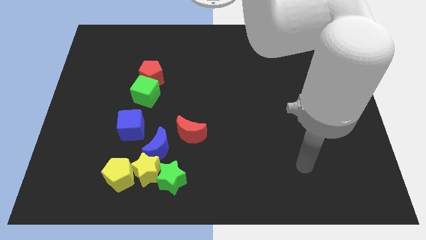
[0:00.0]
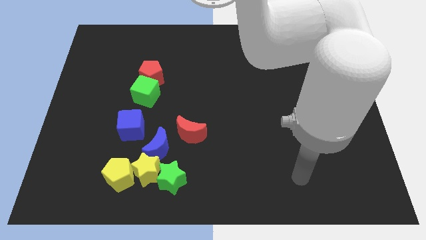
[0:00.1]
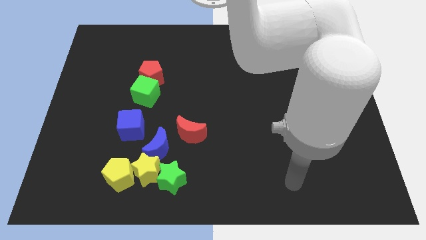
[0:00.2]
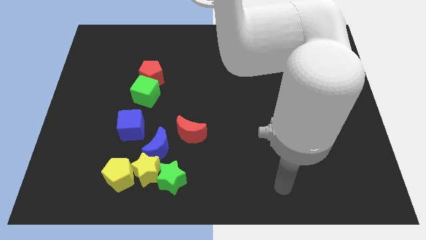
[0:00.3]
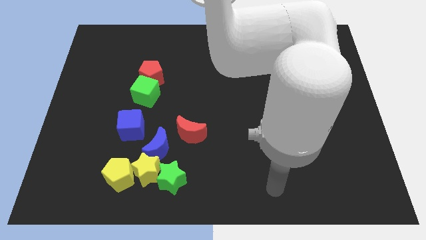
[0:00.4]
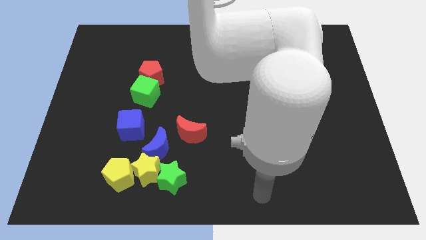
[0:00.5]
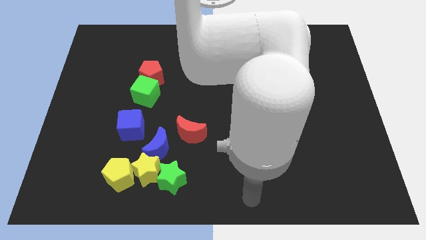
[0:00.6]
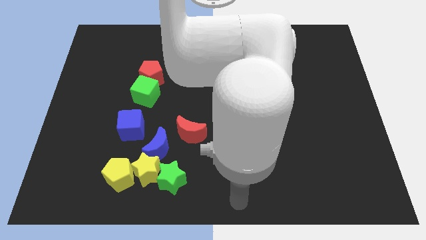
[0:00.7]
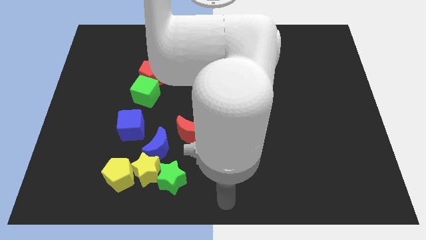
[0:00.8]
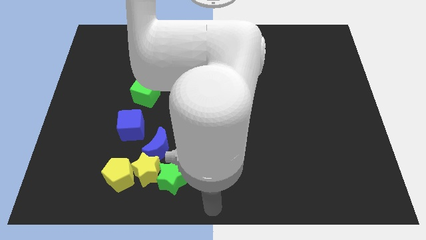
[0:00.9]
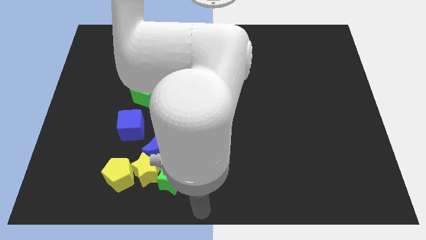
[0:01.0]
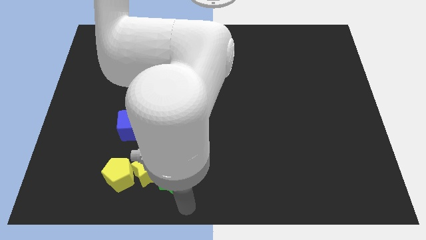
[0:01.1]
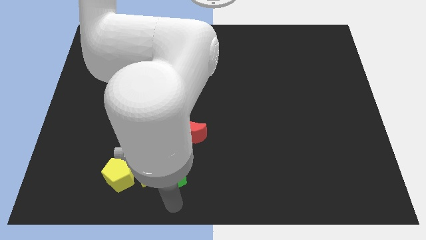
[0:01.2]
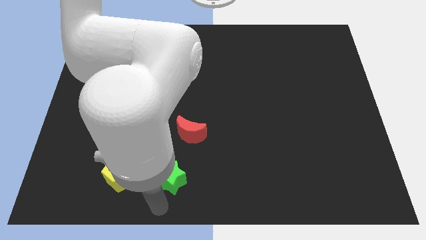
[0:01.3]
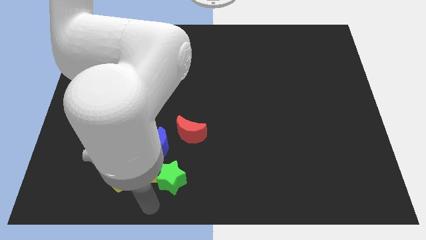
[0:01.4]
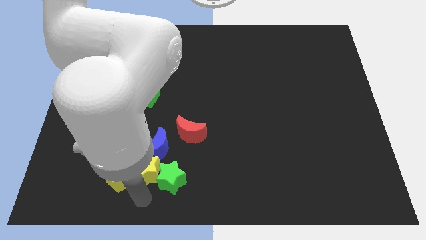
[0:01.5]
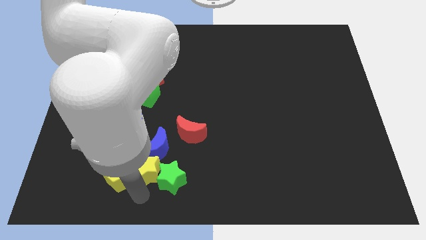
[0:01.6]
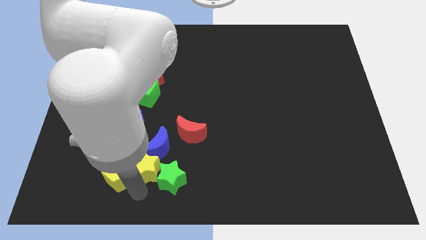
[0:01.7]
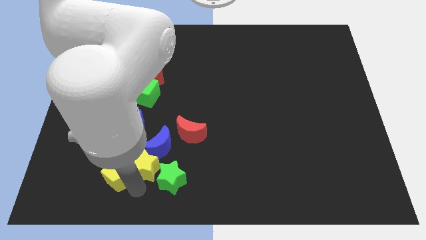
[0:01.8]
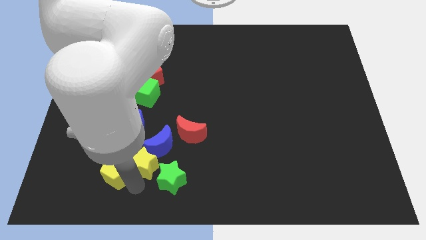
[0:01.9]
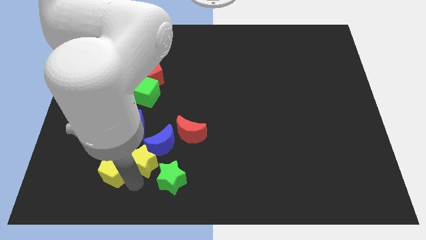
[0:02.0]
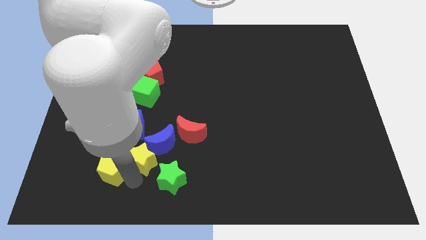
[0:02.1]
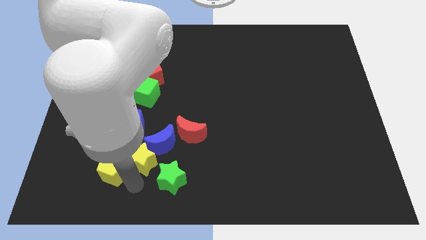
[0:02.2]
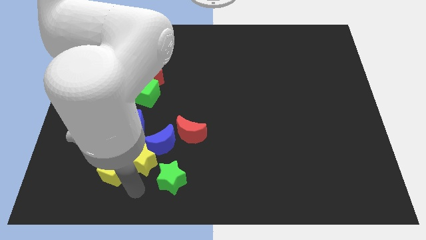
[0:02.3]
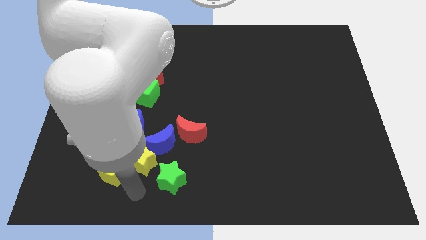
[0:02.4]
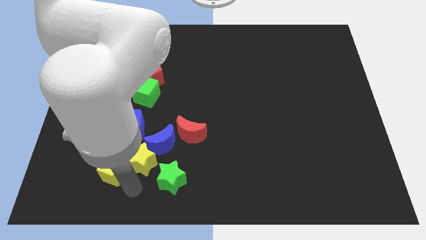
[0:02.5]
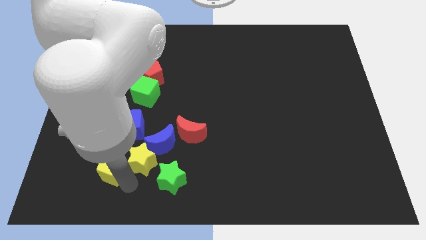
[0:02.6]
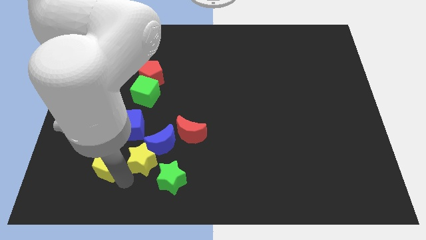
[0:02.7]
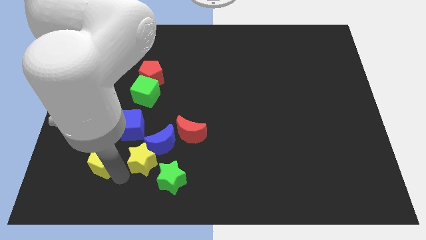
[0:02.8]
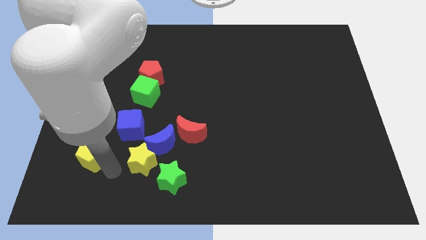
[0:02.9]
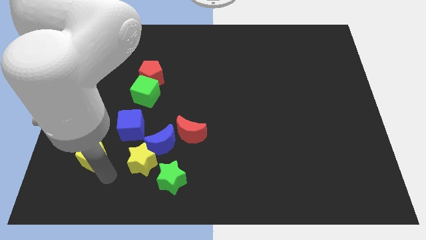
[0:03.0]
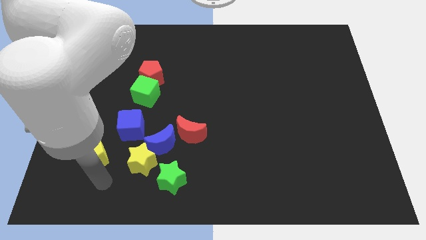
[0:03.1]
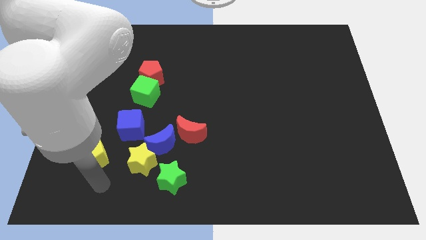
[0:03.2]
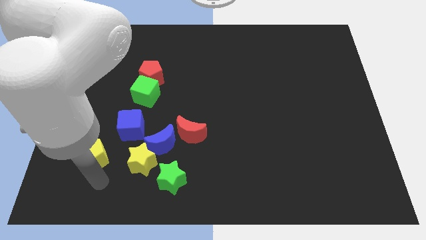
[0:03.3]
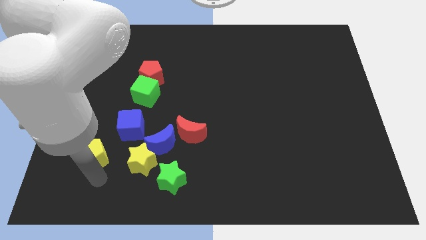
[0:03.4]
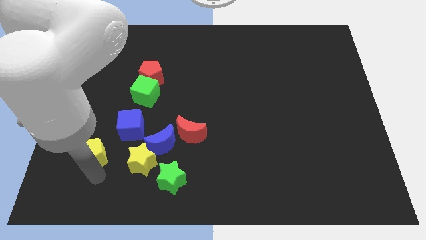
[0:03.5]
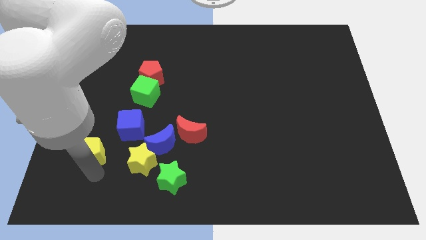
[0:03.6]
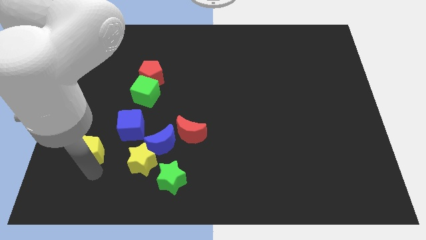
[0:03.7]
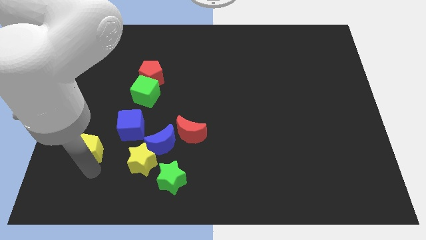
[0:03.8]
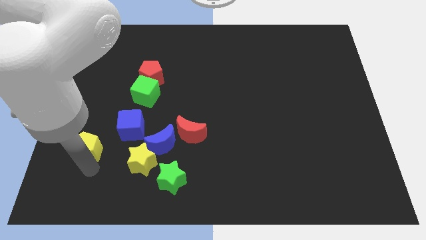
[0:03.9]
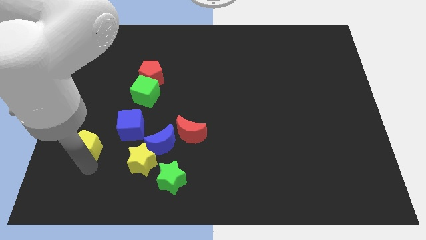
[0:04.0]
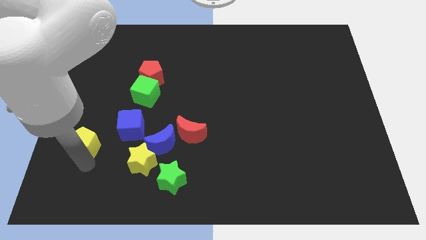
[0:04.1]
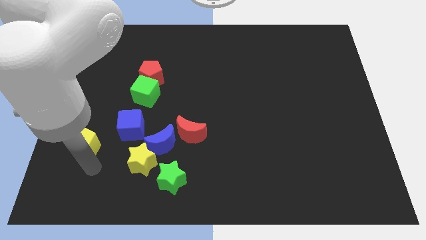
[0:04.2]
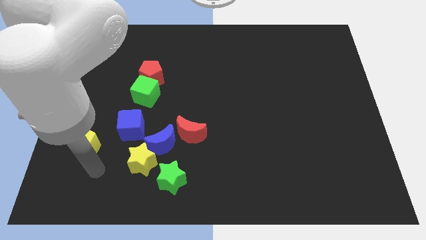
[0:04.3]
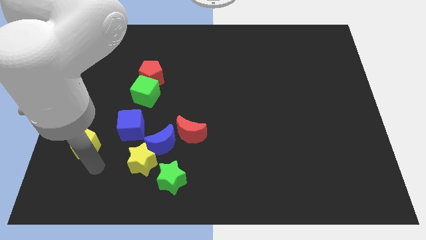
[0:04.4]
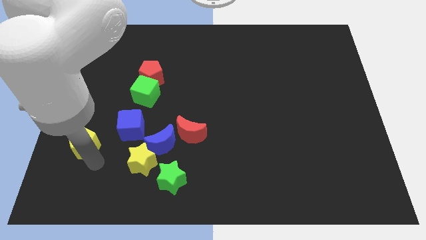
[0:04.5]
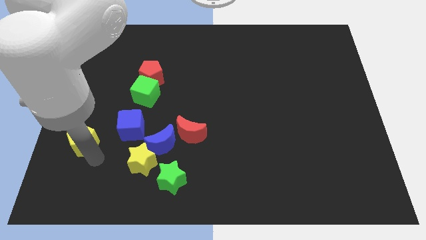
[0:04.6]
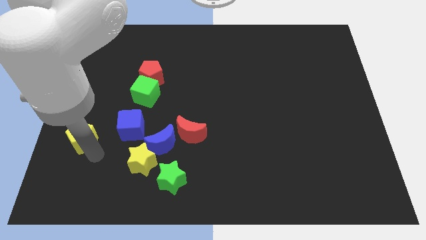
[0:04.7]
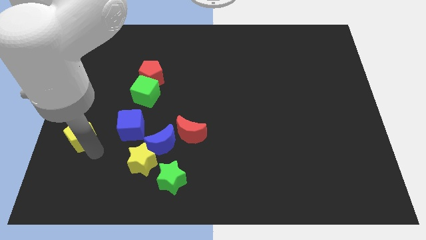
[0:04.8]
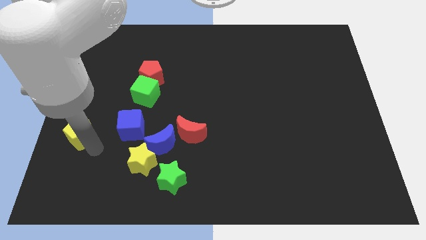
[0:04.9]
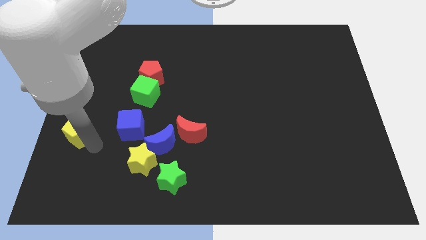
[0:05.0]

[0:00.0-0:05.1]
slide the yellow pentagon to the center left

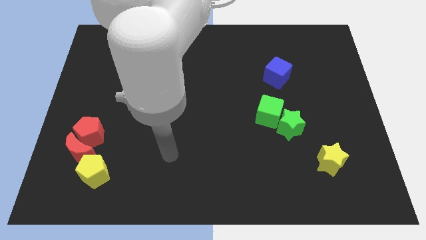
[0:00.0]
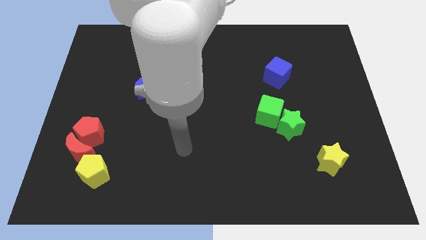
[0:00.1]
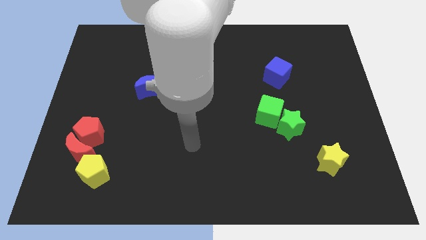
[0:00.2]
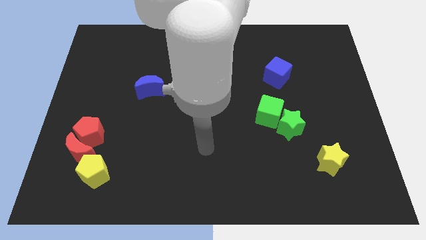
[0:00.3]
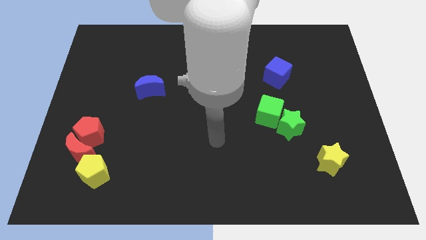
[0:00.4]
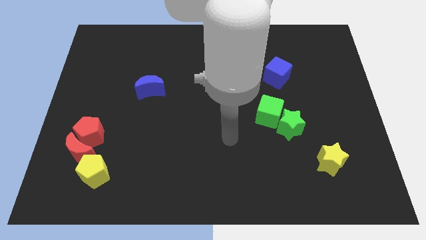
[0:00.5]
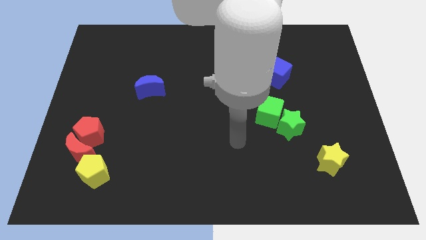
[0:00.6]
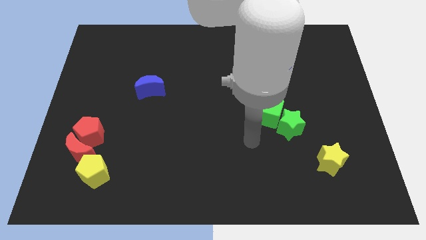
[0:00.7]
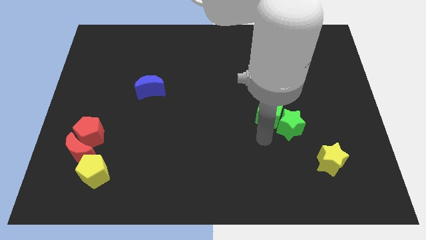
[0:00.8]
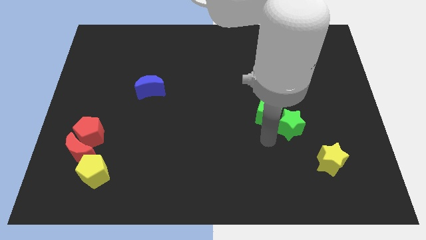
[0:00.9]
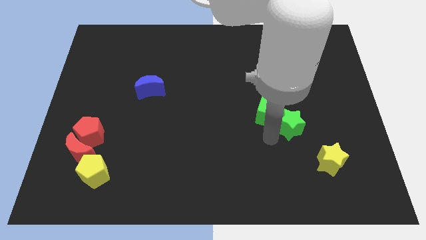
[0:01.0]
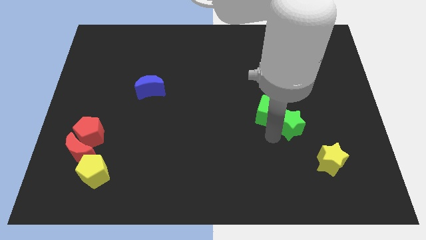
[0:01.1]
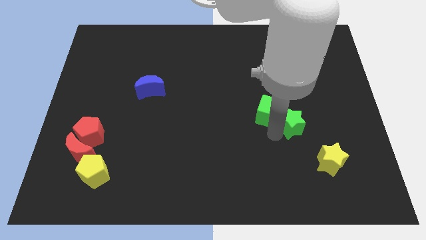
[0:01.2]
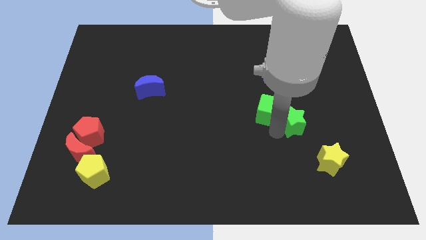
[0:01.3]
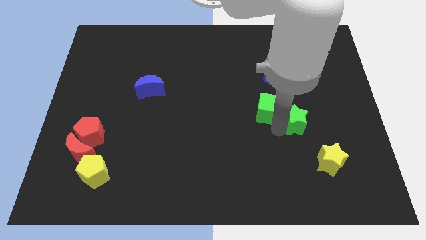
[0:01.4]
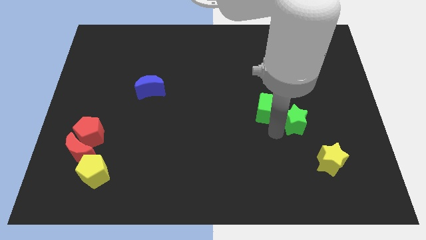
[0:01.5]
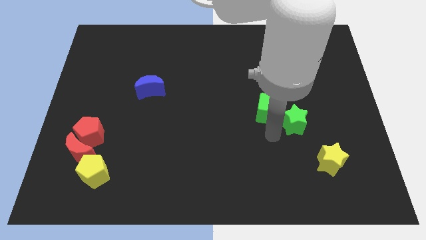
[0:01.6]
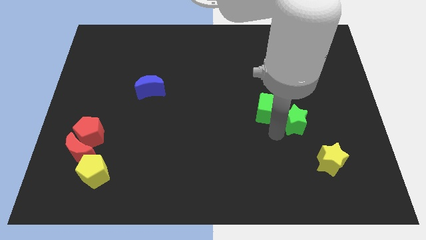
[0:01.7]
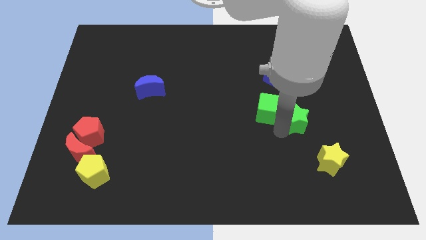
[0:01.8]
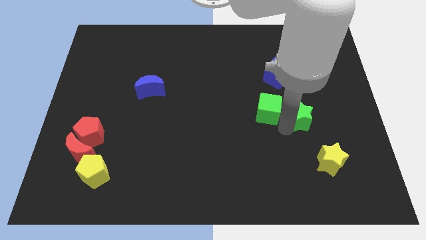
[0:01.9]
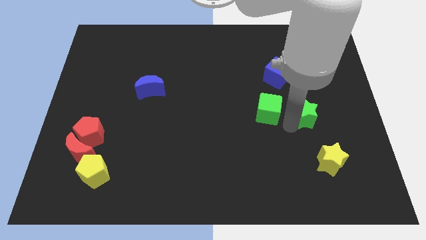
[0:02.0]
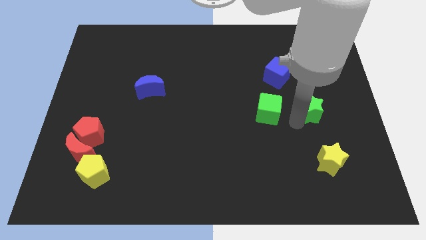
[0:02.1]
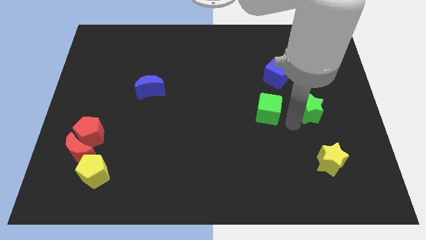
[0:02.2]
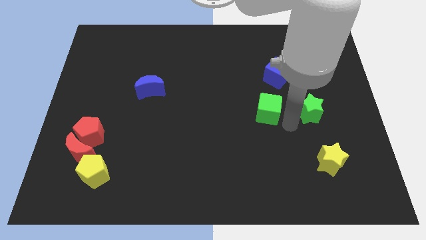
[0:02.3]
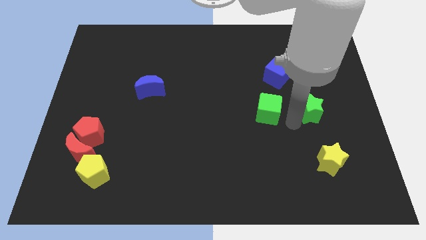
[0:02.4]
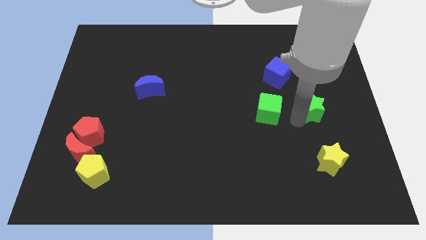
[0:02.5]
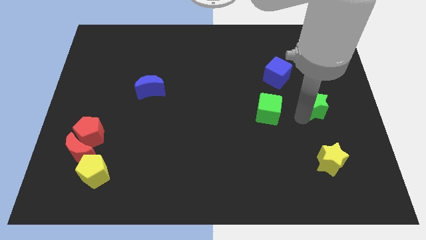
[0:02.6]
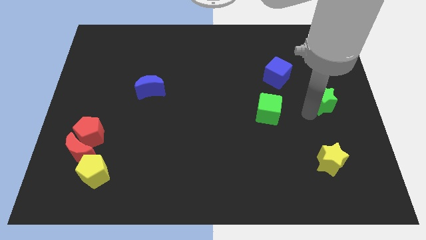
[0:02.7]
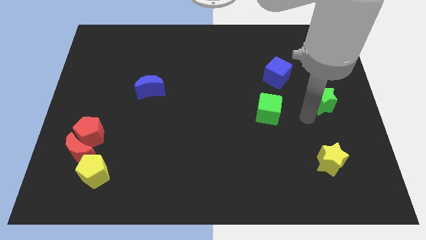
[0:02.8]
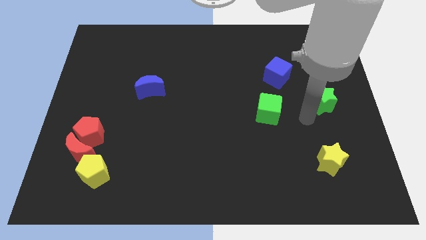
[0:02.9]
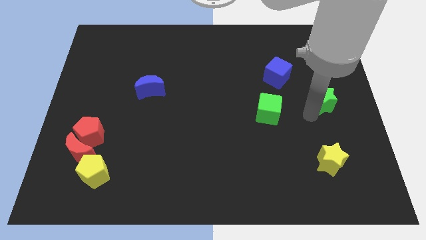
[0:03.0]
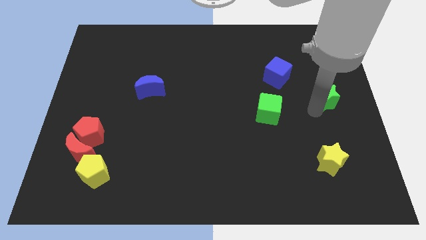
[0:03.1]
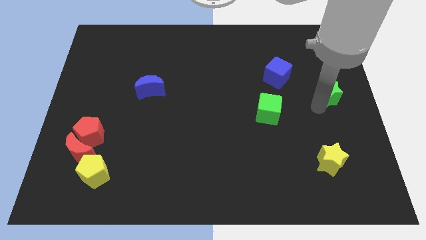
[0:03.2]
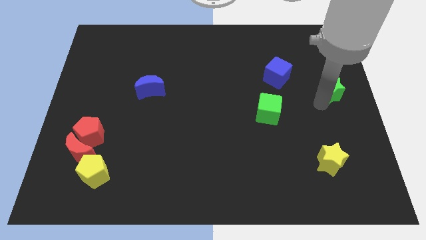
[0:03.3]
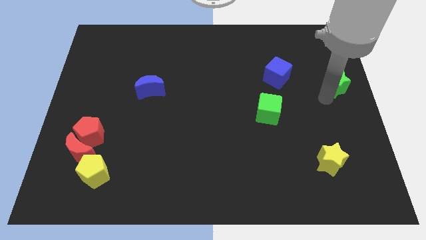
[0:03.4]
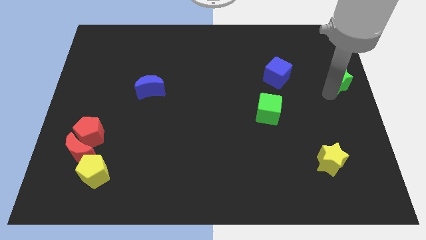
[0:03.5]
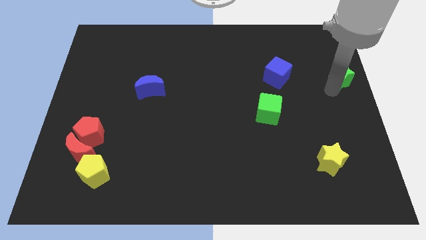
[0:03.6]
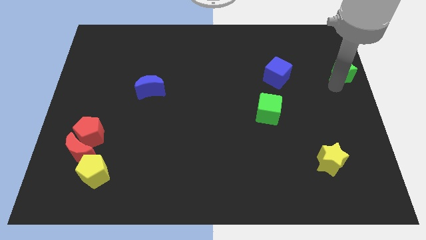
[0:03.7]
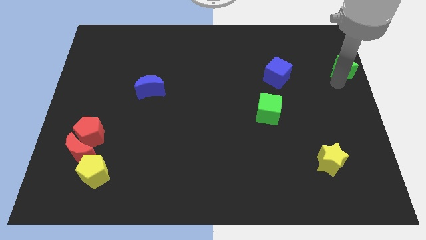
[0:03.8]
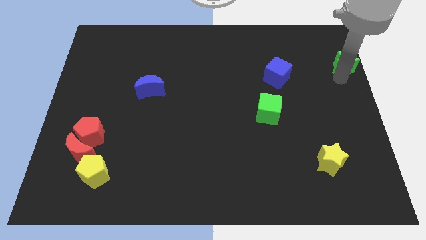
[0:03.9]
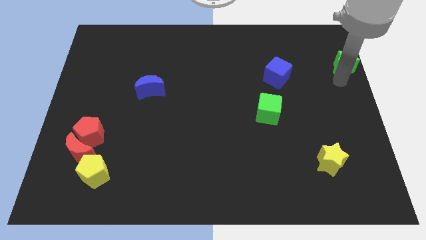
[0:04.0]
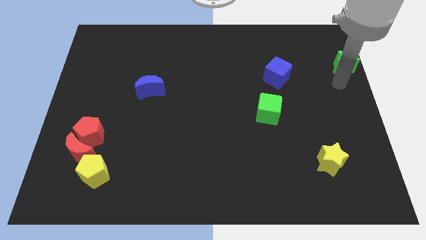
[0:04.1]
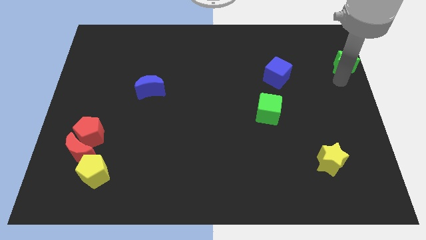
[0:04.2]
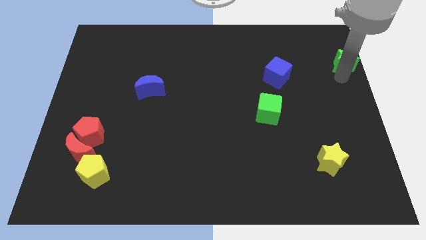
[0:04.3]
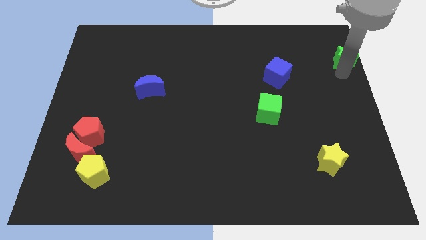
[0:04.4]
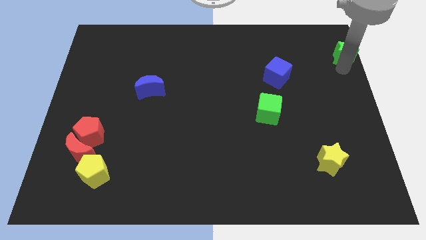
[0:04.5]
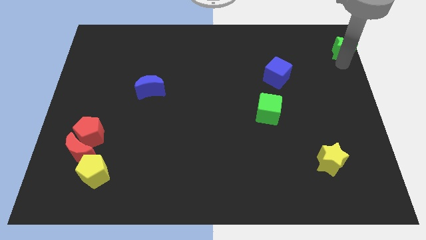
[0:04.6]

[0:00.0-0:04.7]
push the green star to the top right of the board
